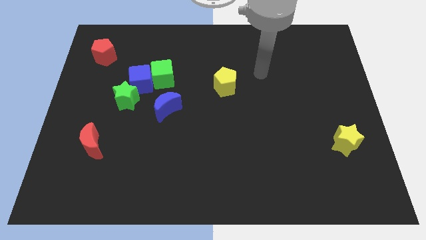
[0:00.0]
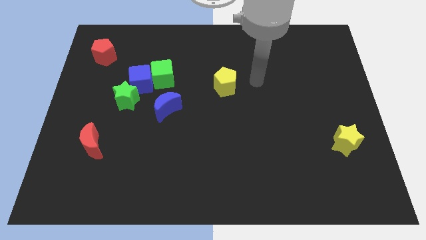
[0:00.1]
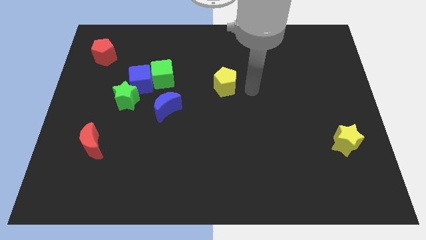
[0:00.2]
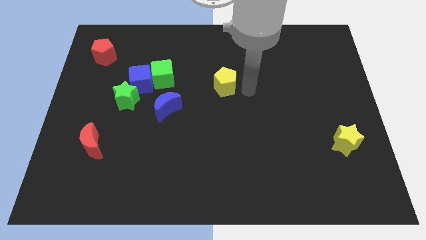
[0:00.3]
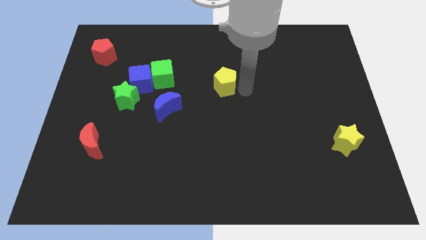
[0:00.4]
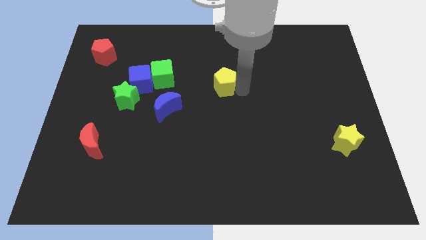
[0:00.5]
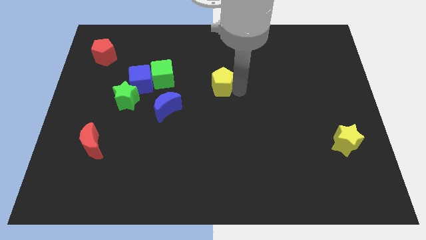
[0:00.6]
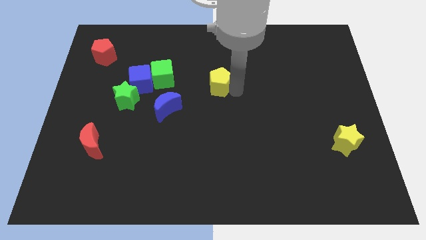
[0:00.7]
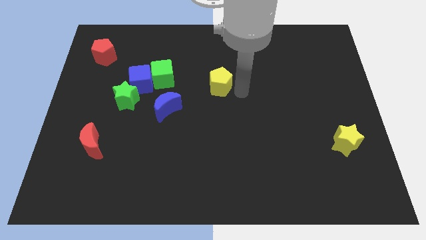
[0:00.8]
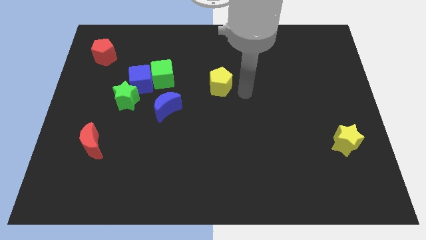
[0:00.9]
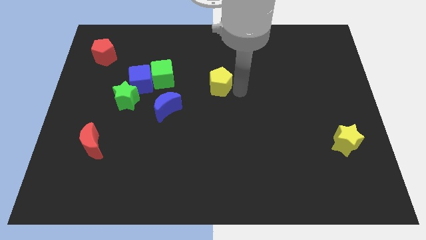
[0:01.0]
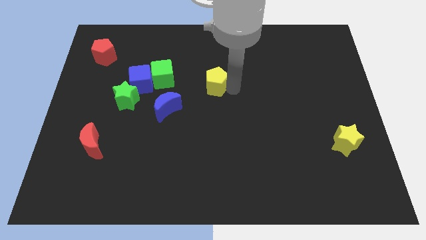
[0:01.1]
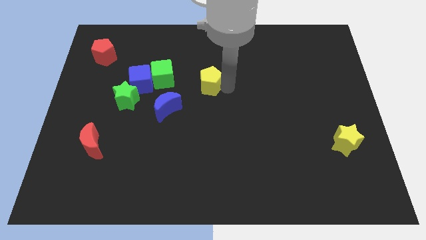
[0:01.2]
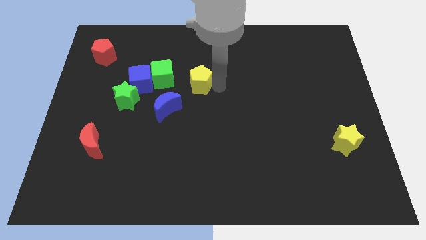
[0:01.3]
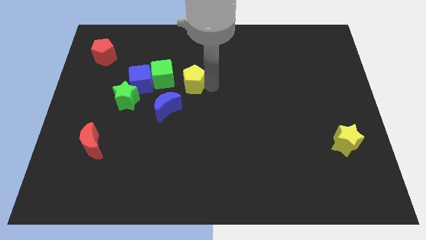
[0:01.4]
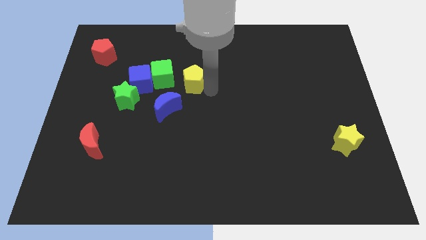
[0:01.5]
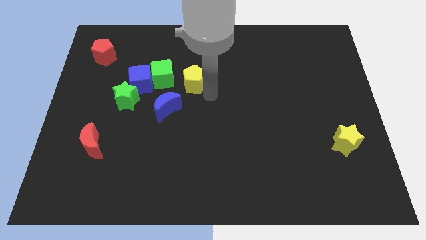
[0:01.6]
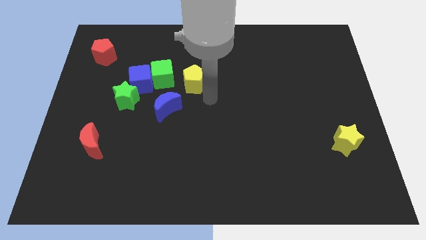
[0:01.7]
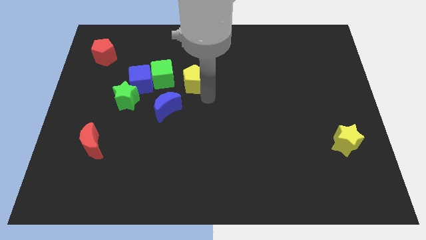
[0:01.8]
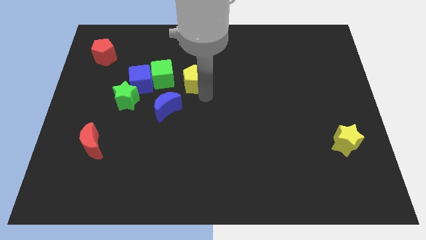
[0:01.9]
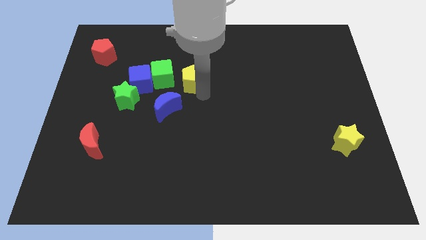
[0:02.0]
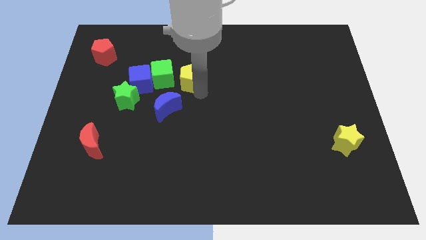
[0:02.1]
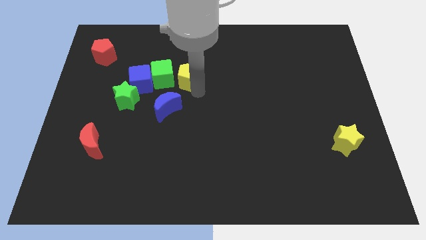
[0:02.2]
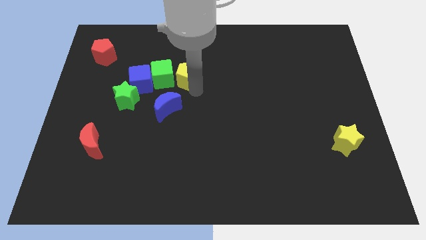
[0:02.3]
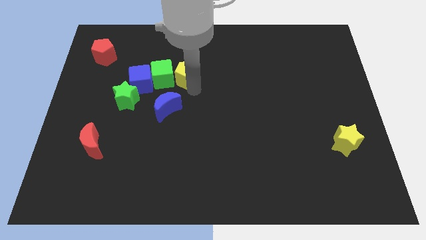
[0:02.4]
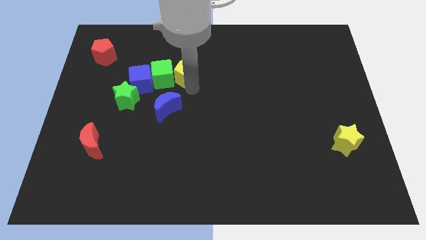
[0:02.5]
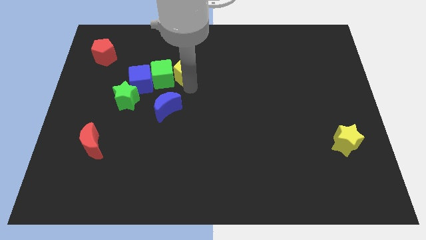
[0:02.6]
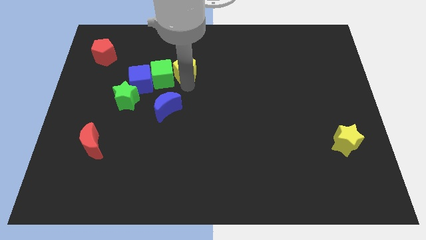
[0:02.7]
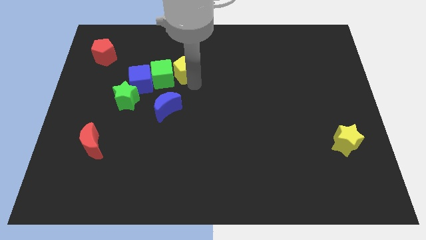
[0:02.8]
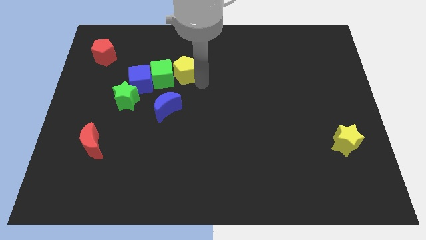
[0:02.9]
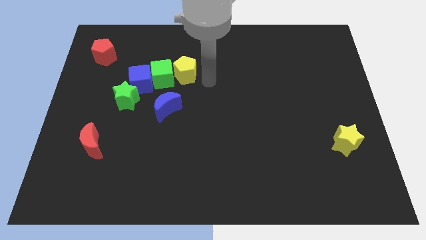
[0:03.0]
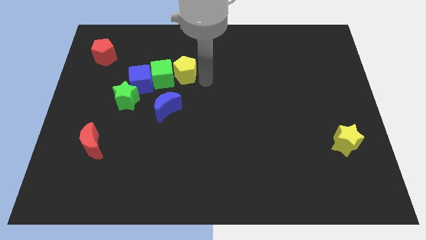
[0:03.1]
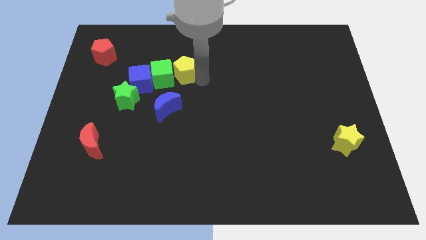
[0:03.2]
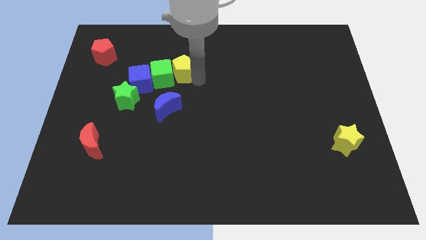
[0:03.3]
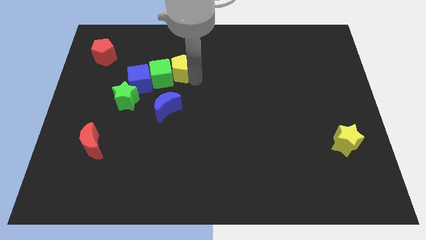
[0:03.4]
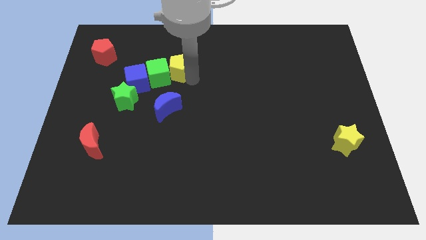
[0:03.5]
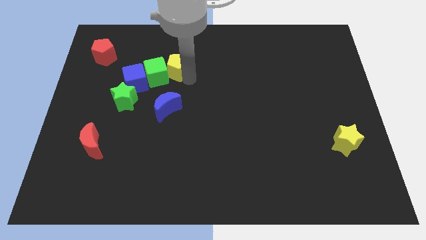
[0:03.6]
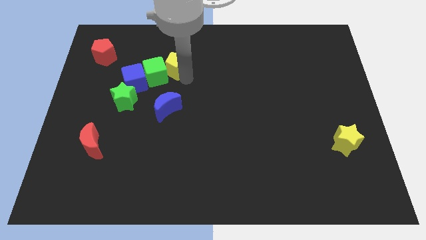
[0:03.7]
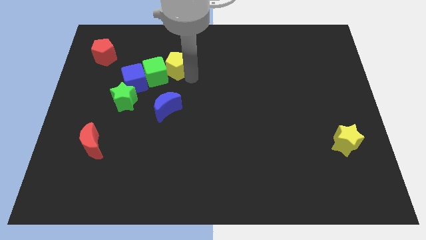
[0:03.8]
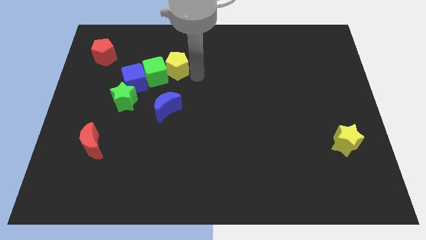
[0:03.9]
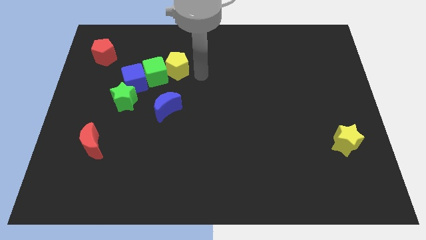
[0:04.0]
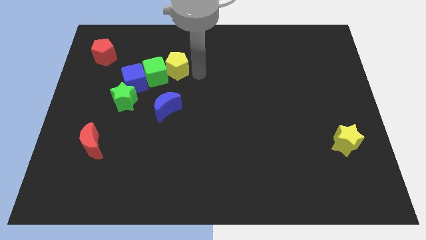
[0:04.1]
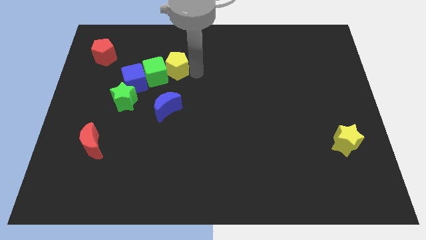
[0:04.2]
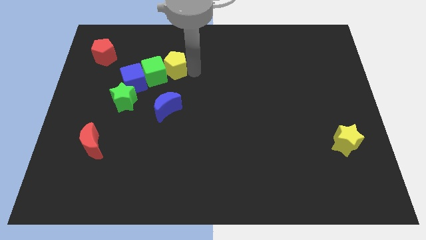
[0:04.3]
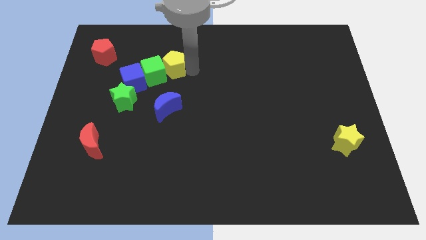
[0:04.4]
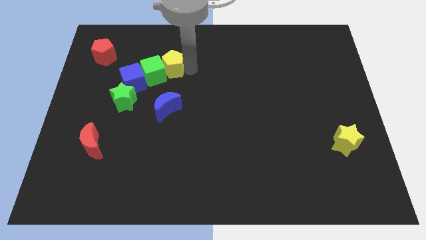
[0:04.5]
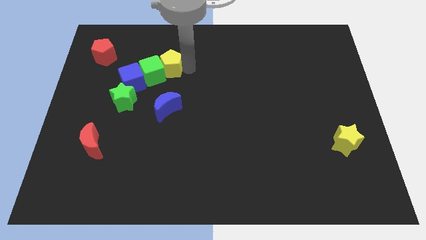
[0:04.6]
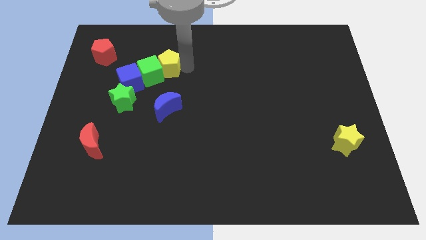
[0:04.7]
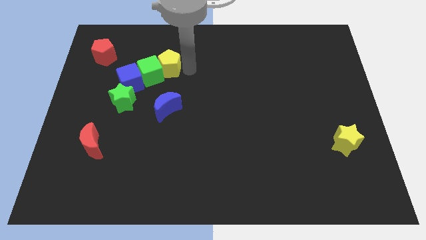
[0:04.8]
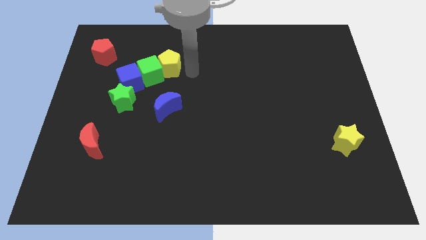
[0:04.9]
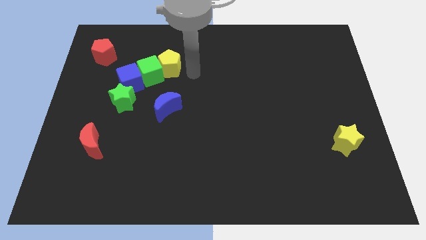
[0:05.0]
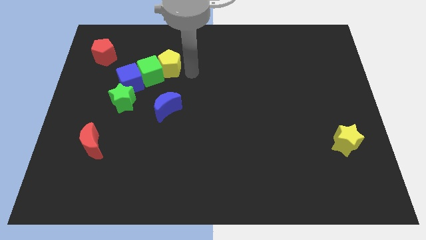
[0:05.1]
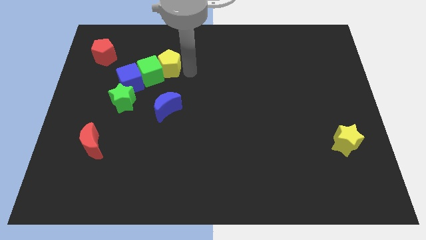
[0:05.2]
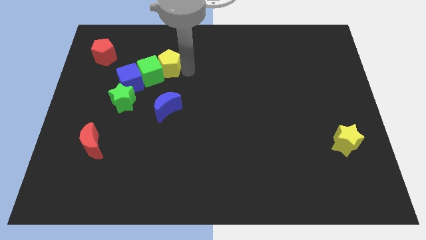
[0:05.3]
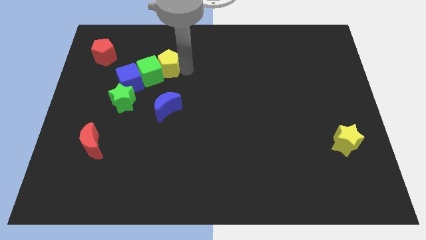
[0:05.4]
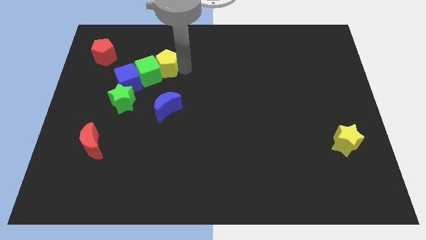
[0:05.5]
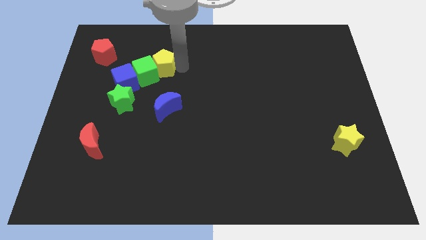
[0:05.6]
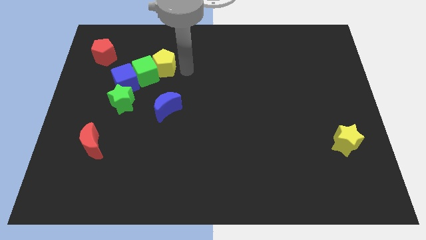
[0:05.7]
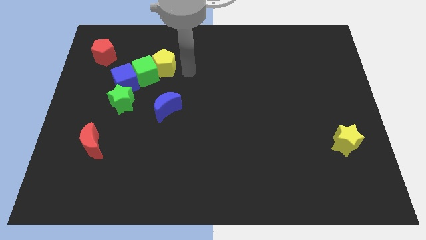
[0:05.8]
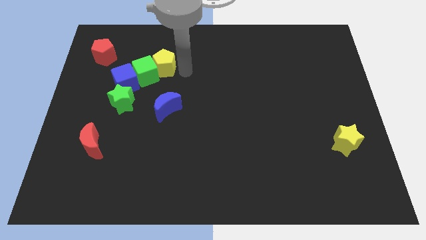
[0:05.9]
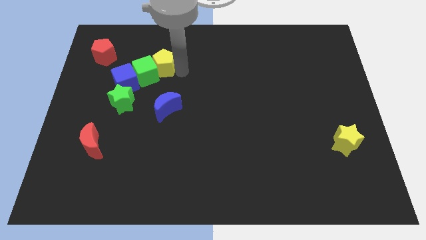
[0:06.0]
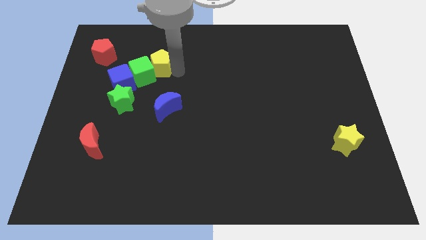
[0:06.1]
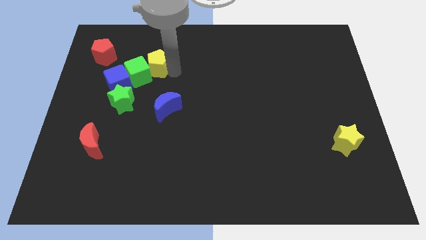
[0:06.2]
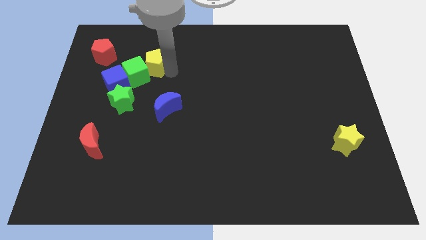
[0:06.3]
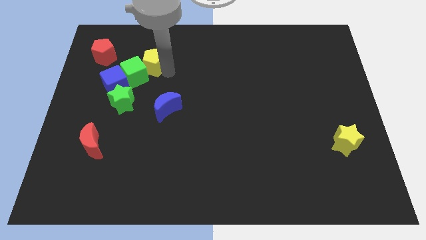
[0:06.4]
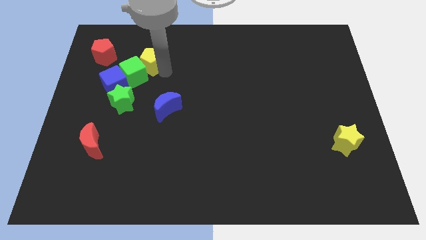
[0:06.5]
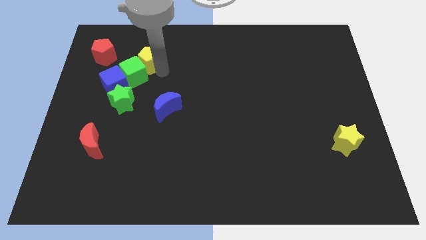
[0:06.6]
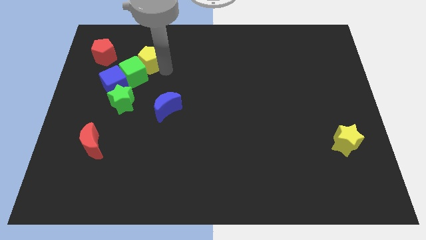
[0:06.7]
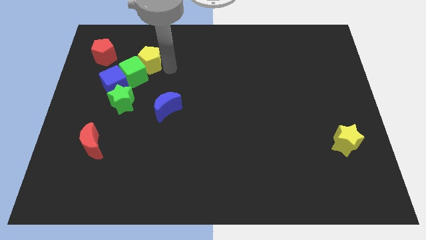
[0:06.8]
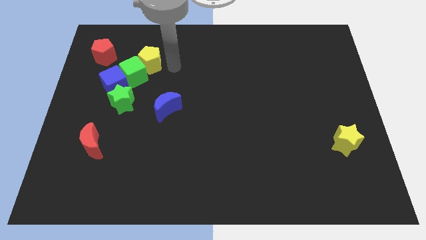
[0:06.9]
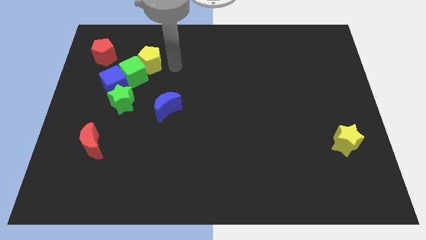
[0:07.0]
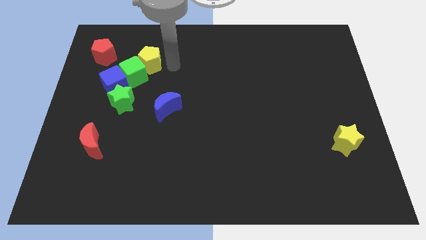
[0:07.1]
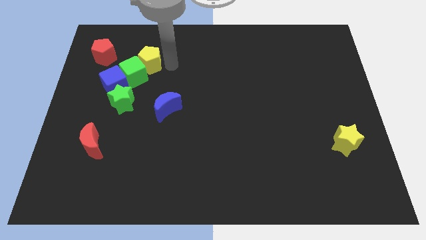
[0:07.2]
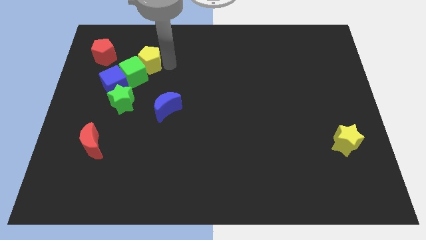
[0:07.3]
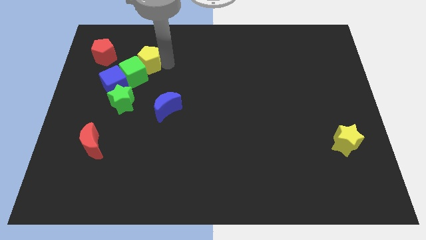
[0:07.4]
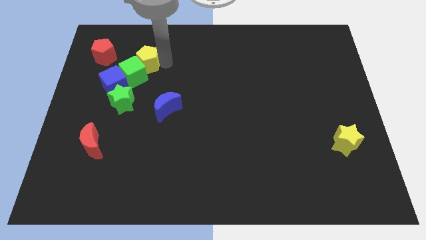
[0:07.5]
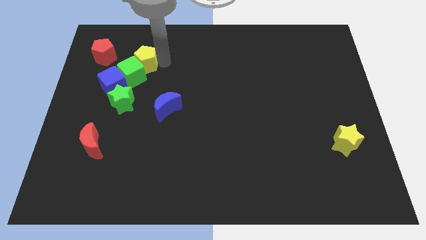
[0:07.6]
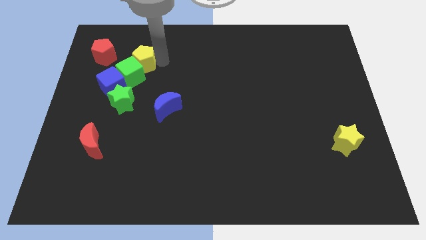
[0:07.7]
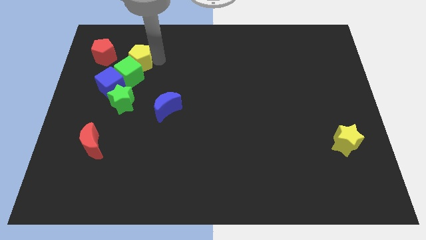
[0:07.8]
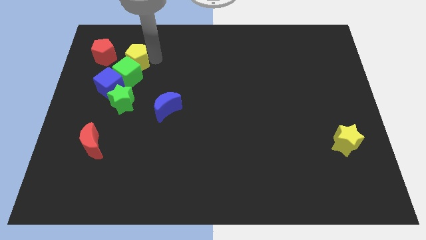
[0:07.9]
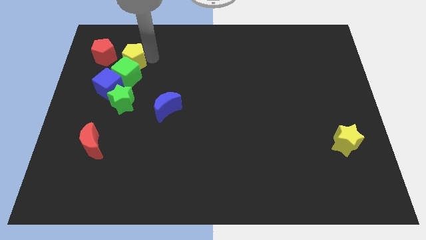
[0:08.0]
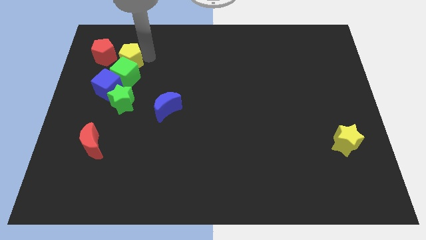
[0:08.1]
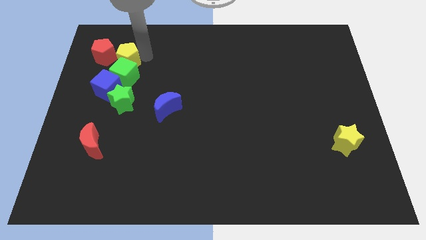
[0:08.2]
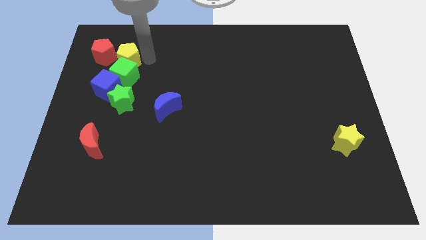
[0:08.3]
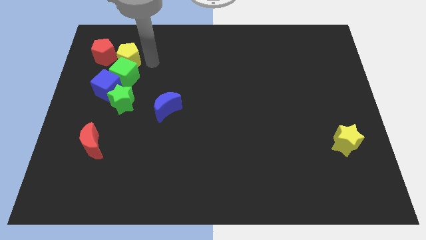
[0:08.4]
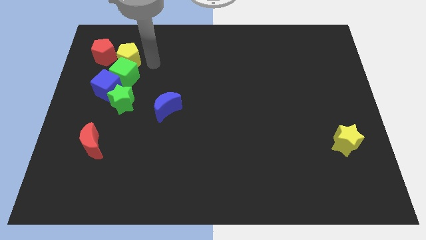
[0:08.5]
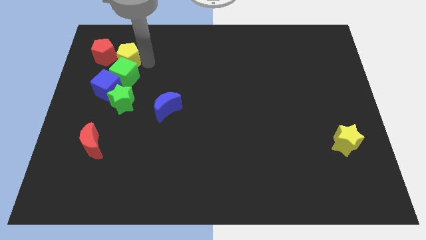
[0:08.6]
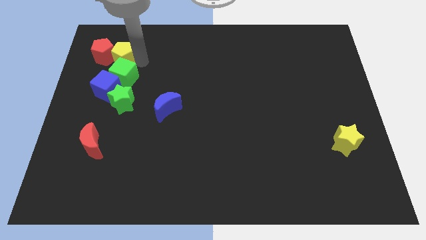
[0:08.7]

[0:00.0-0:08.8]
slide the yellow pentagon towards the red pentagon
